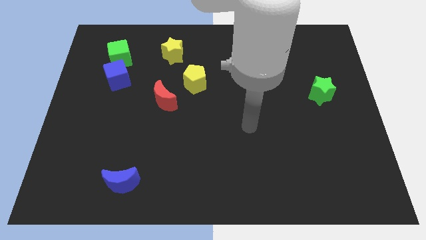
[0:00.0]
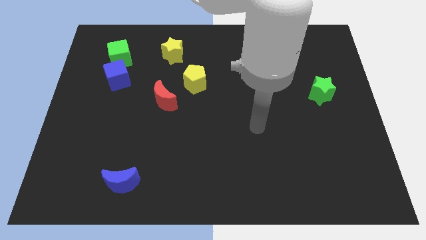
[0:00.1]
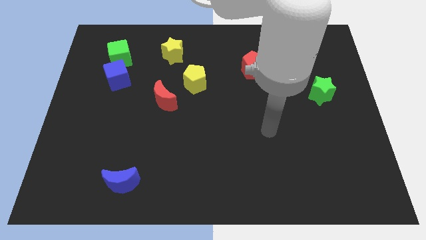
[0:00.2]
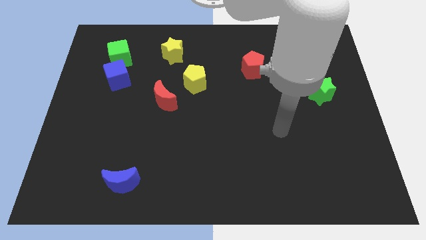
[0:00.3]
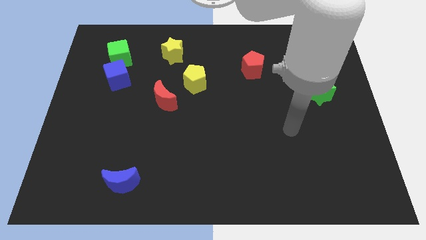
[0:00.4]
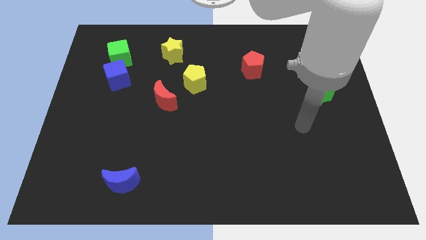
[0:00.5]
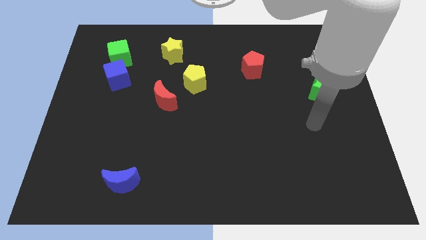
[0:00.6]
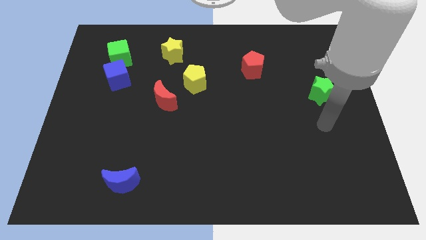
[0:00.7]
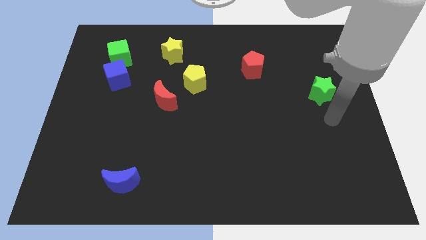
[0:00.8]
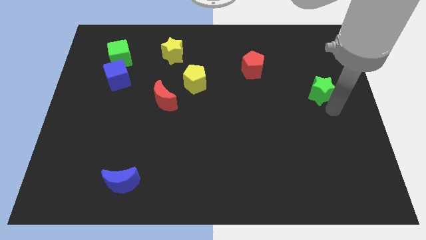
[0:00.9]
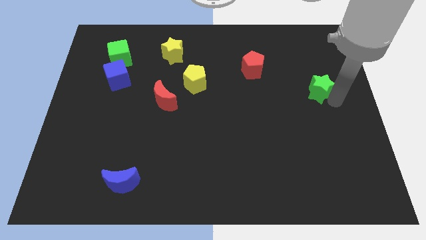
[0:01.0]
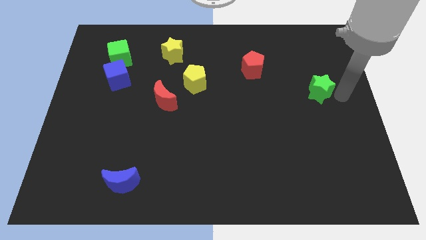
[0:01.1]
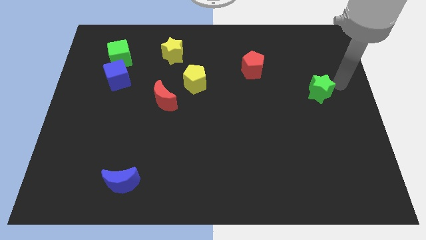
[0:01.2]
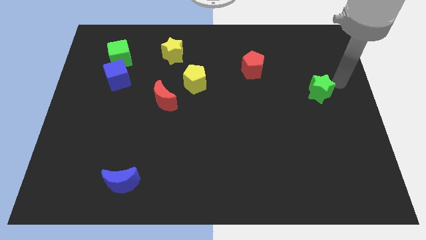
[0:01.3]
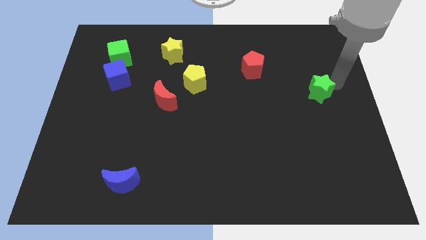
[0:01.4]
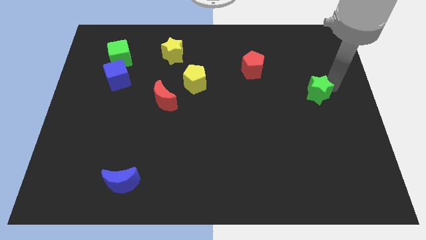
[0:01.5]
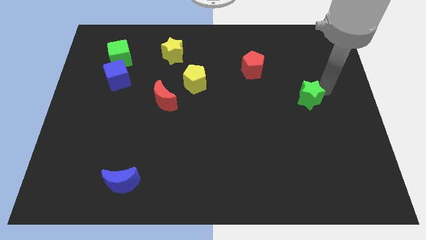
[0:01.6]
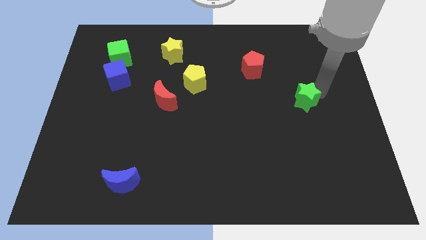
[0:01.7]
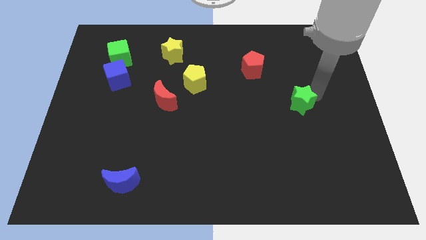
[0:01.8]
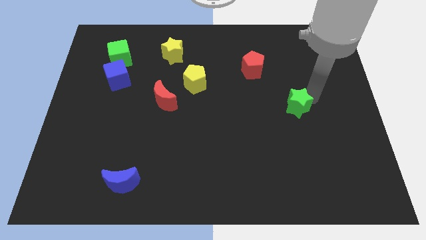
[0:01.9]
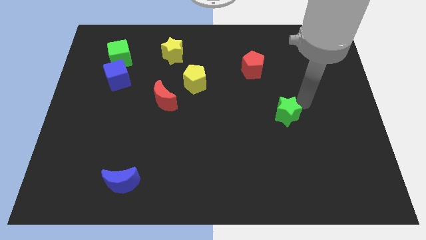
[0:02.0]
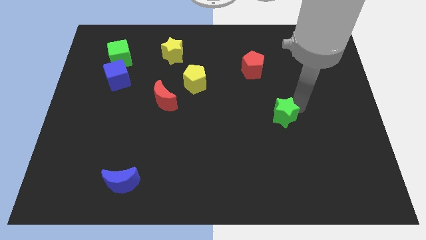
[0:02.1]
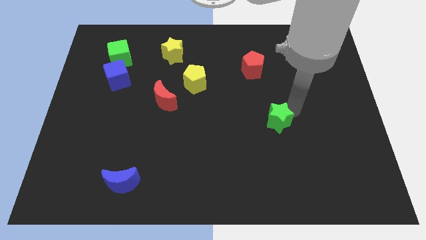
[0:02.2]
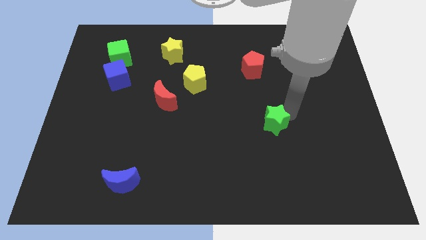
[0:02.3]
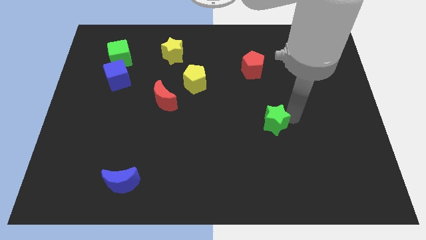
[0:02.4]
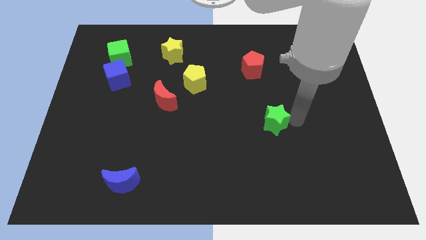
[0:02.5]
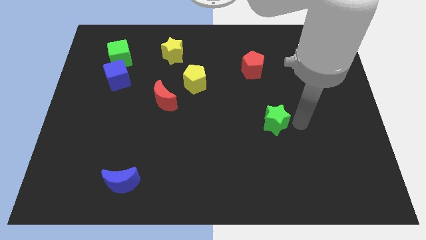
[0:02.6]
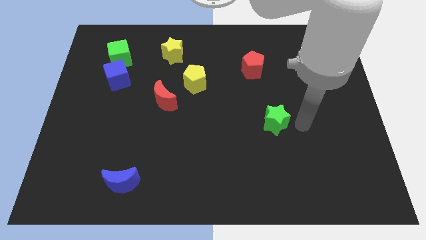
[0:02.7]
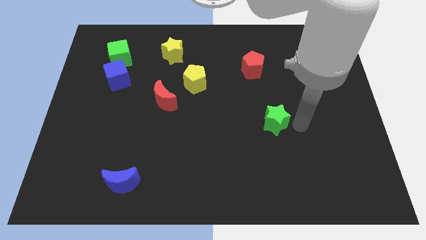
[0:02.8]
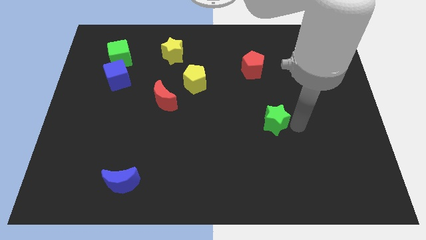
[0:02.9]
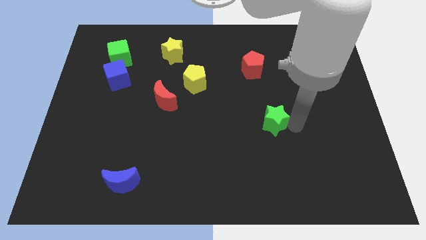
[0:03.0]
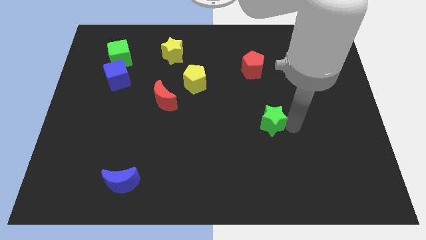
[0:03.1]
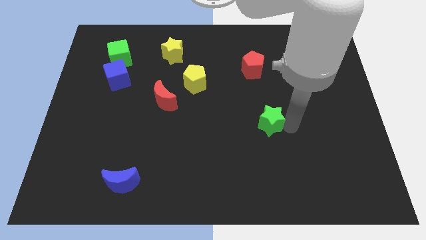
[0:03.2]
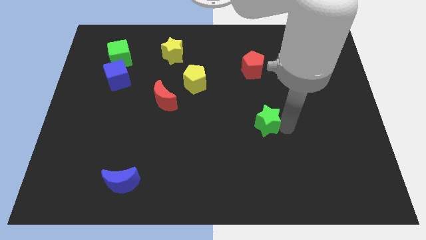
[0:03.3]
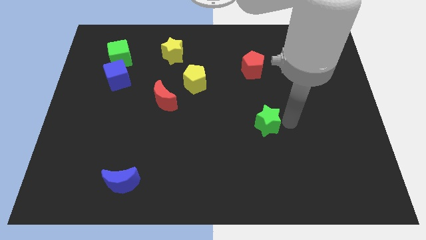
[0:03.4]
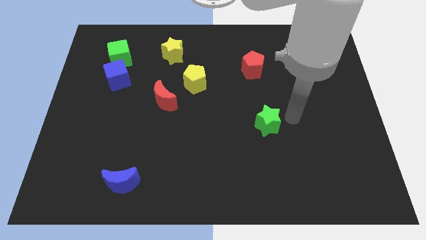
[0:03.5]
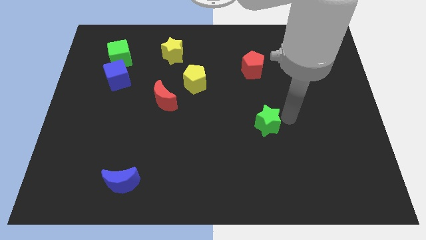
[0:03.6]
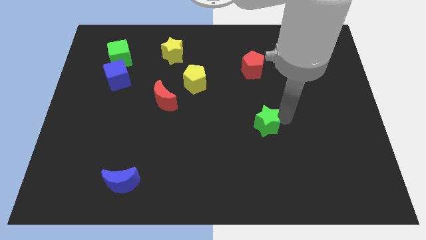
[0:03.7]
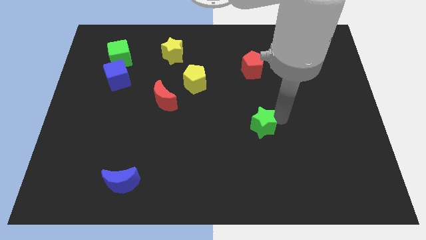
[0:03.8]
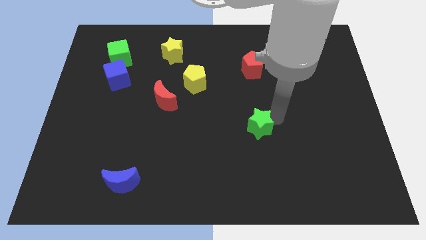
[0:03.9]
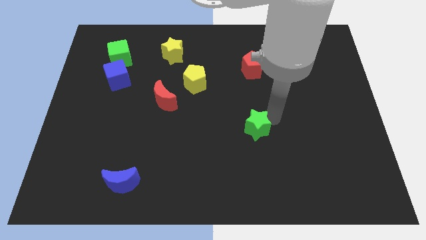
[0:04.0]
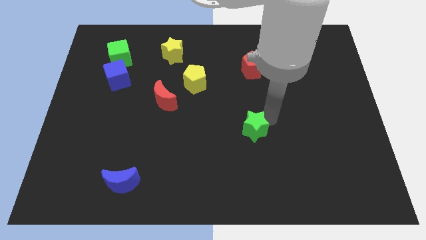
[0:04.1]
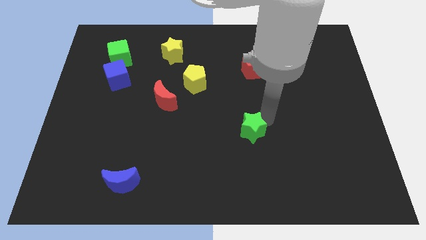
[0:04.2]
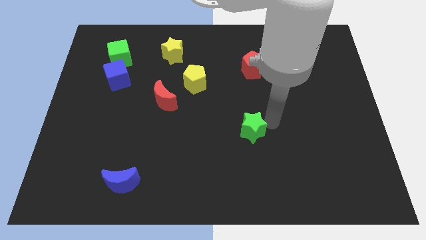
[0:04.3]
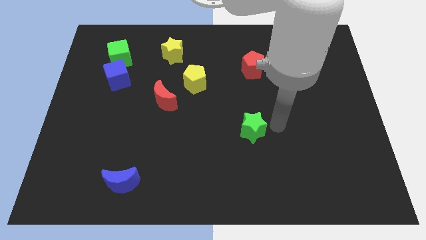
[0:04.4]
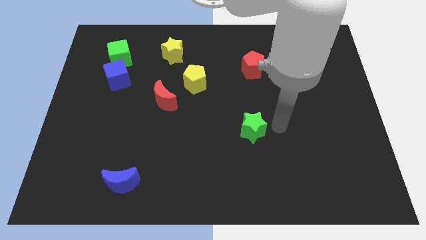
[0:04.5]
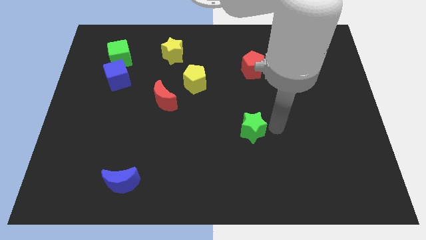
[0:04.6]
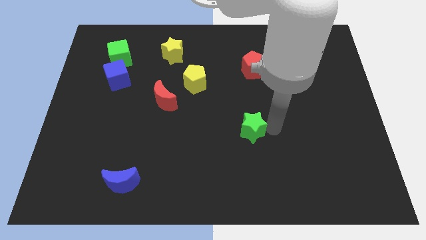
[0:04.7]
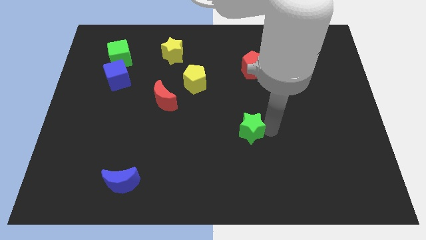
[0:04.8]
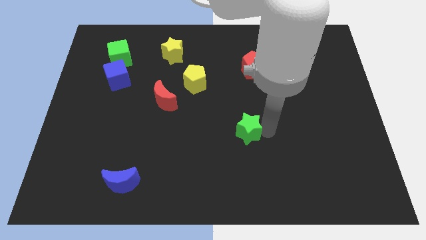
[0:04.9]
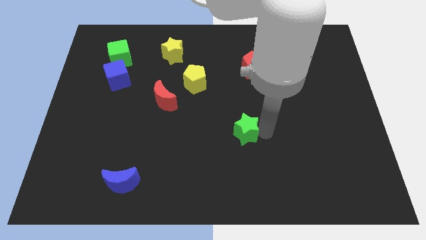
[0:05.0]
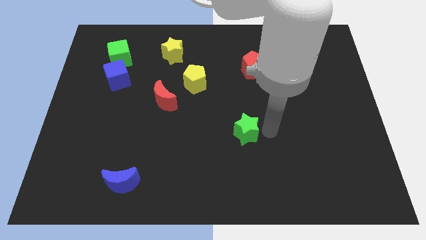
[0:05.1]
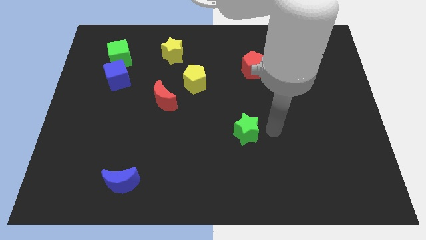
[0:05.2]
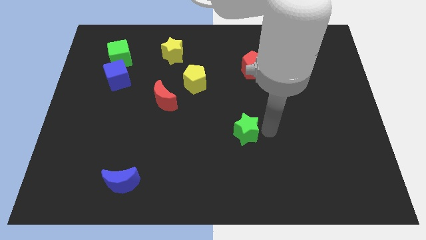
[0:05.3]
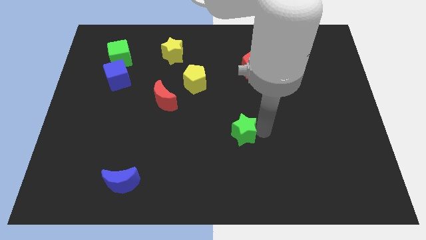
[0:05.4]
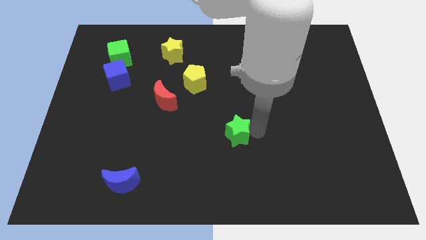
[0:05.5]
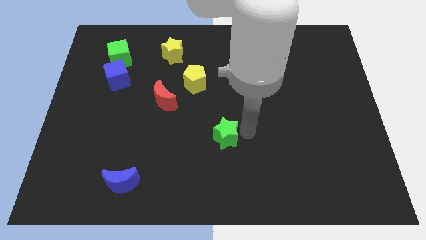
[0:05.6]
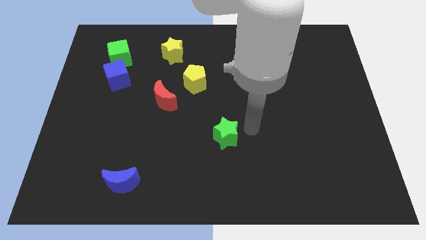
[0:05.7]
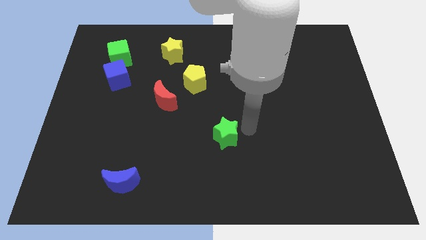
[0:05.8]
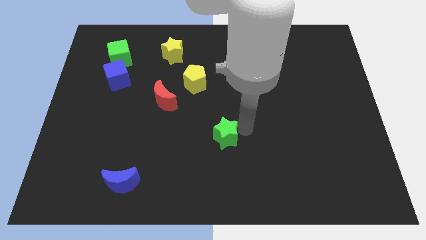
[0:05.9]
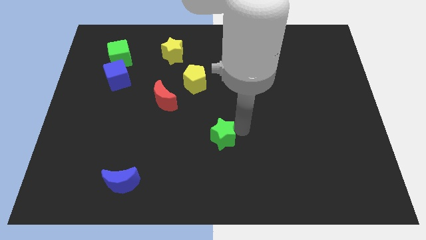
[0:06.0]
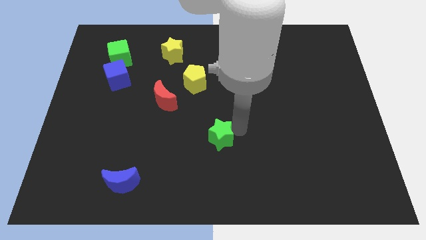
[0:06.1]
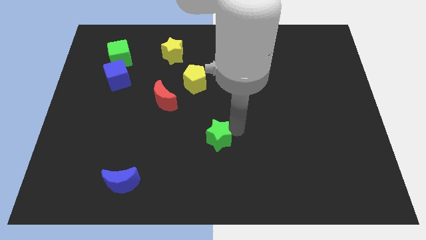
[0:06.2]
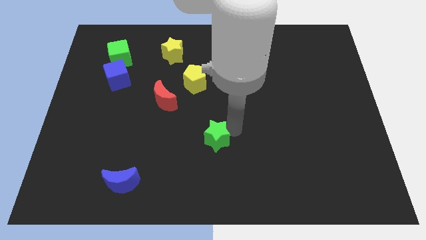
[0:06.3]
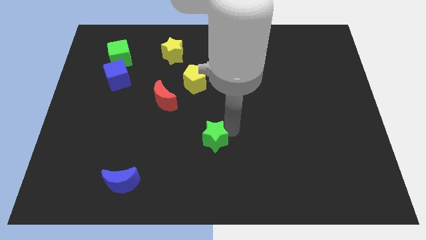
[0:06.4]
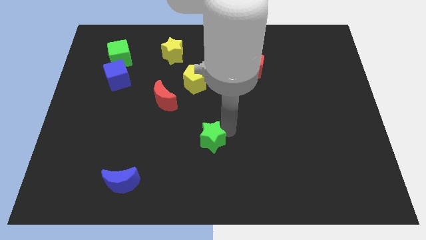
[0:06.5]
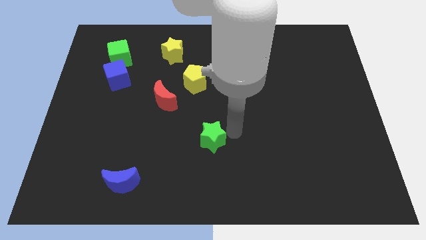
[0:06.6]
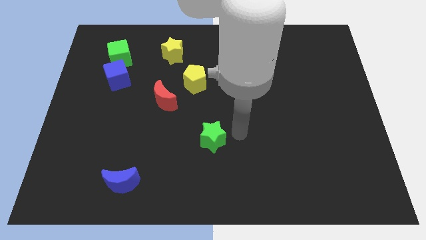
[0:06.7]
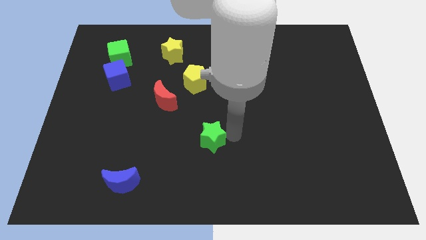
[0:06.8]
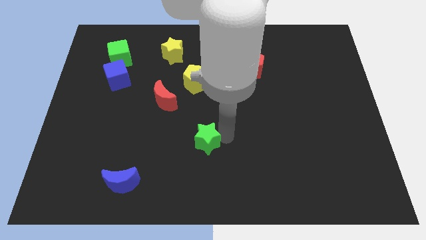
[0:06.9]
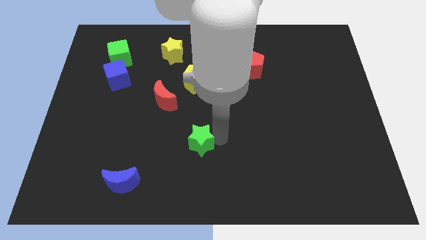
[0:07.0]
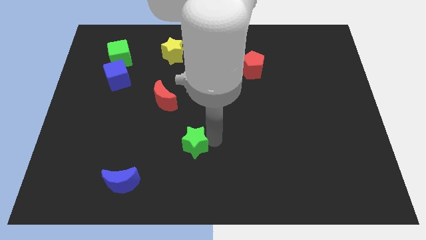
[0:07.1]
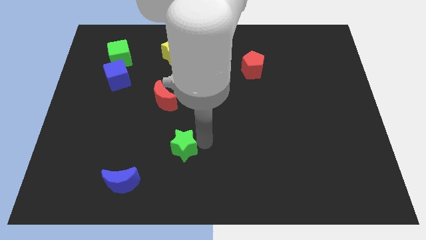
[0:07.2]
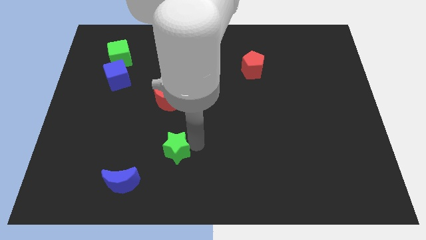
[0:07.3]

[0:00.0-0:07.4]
slide the green star to the top right side of the blue moon
